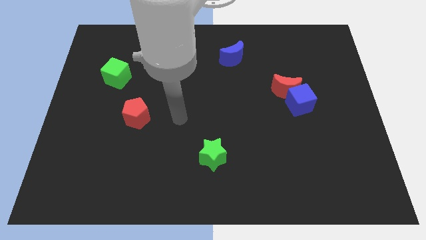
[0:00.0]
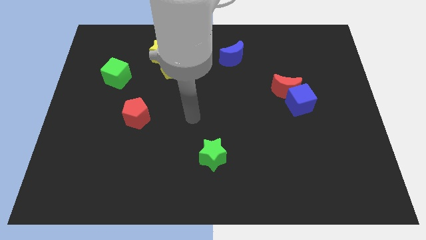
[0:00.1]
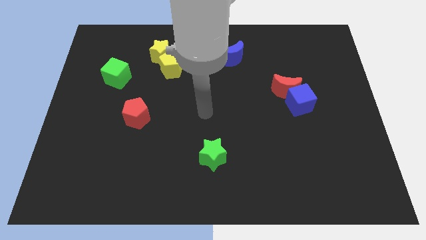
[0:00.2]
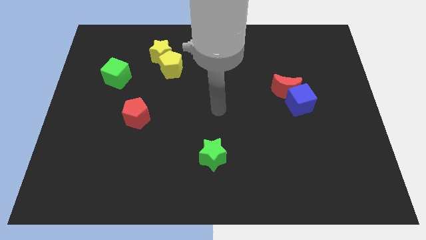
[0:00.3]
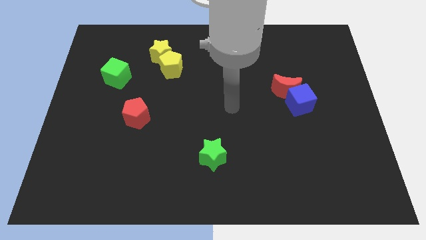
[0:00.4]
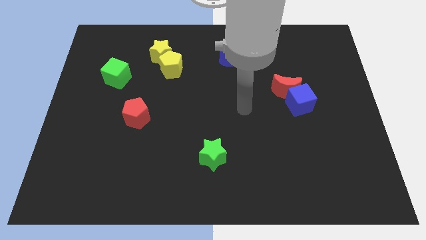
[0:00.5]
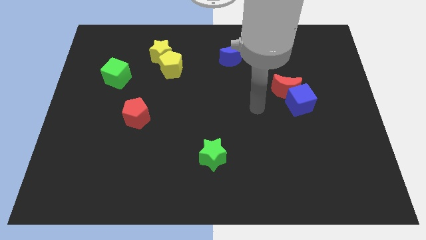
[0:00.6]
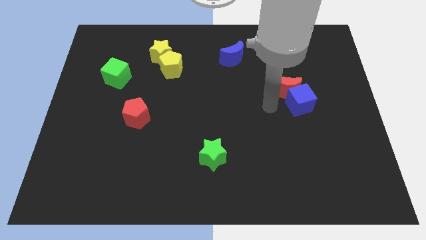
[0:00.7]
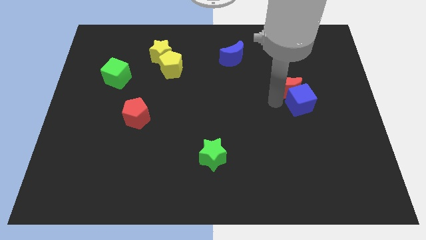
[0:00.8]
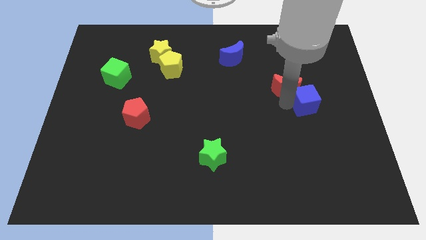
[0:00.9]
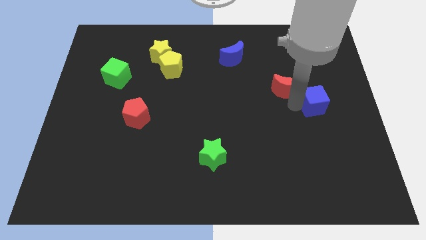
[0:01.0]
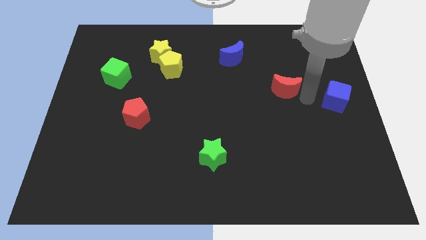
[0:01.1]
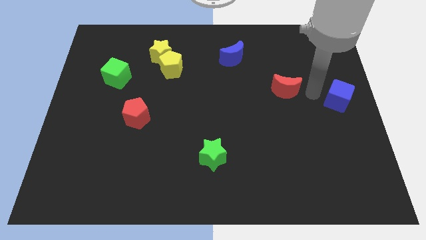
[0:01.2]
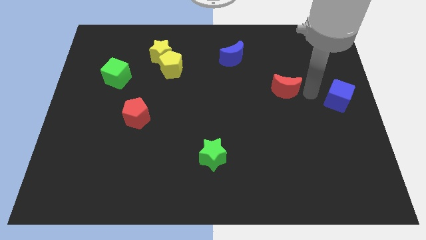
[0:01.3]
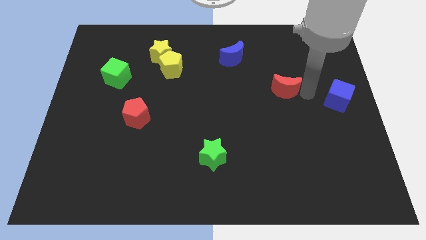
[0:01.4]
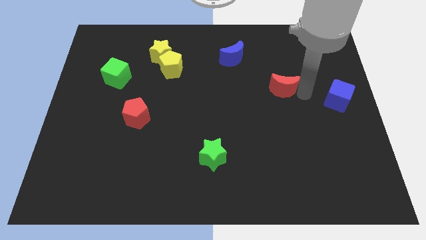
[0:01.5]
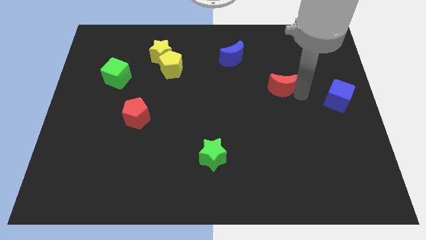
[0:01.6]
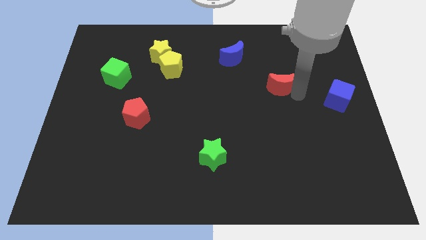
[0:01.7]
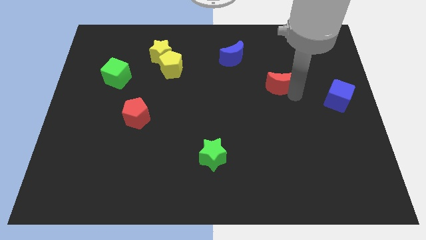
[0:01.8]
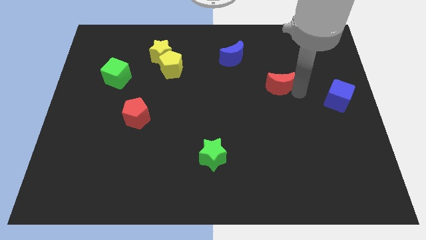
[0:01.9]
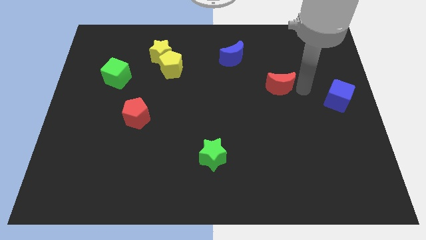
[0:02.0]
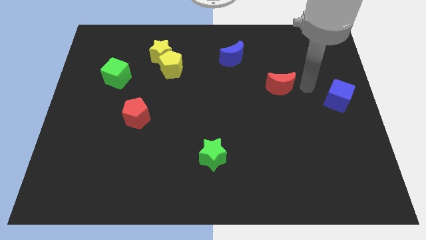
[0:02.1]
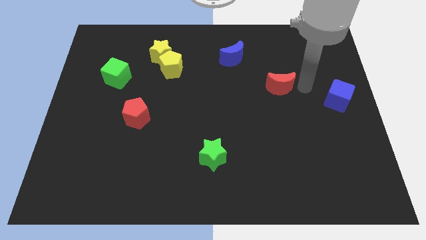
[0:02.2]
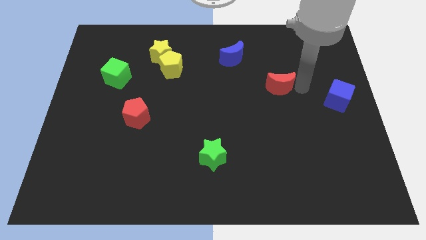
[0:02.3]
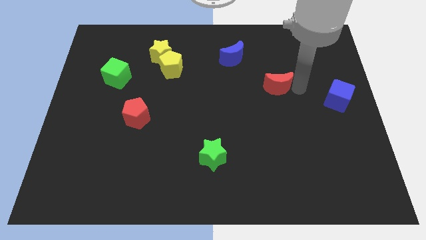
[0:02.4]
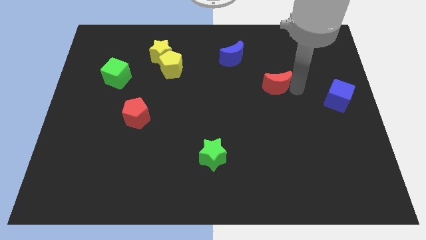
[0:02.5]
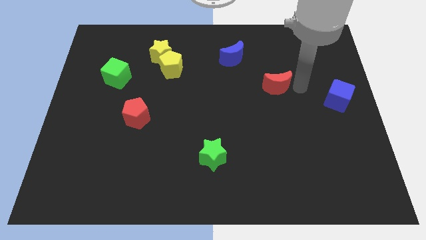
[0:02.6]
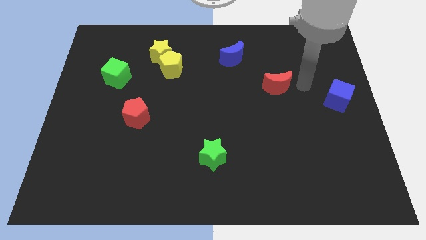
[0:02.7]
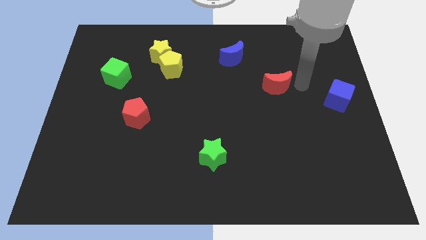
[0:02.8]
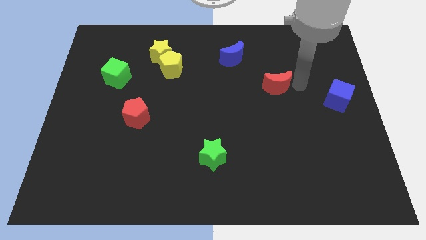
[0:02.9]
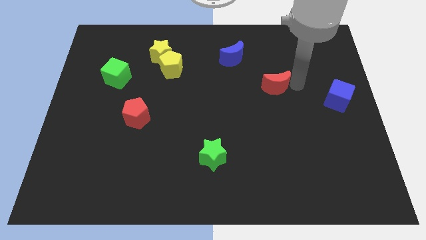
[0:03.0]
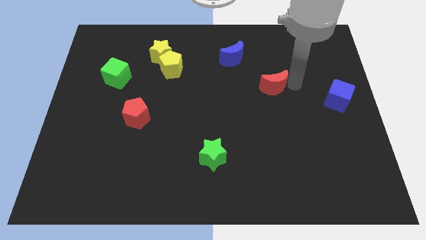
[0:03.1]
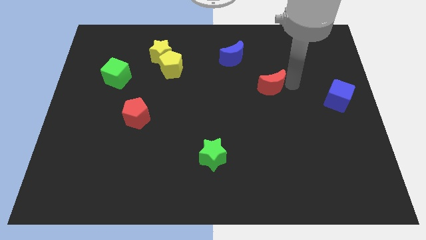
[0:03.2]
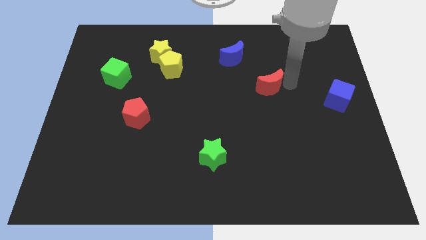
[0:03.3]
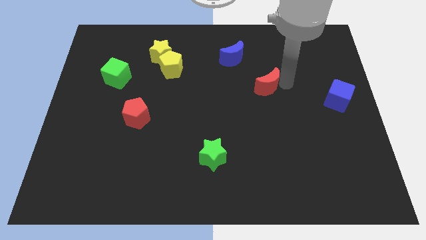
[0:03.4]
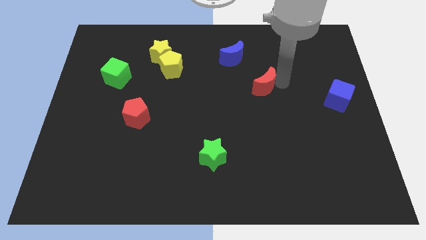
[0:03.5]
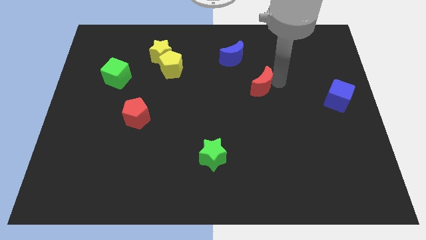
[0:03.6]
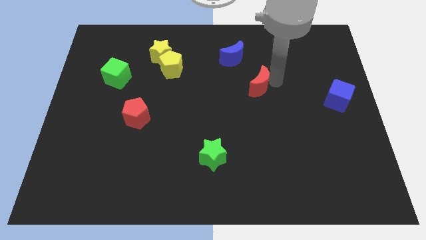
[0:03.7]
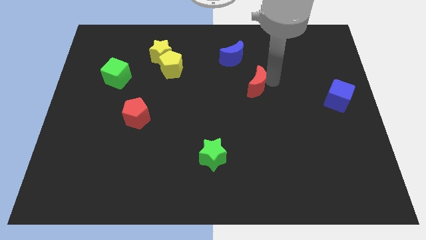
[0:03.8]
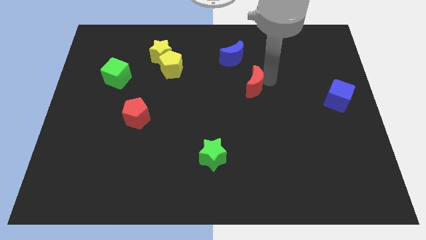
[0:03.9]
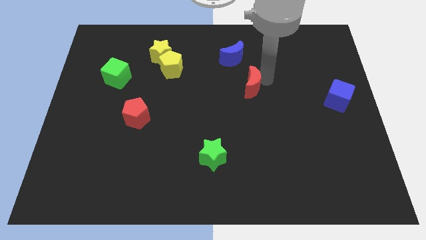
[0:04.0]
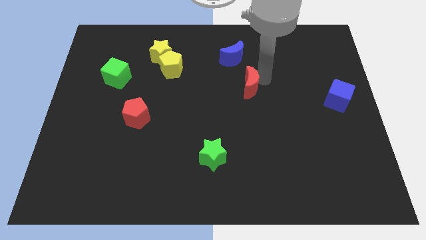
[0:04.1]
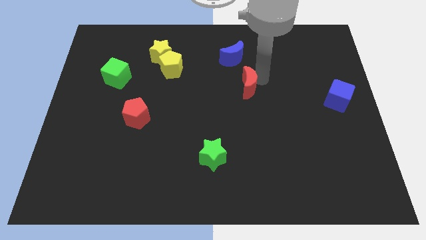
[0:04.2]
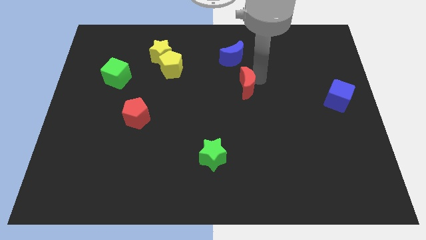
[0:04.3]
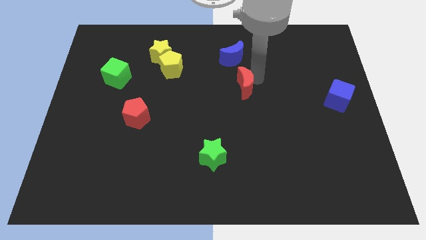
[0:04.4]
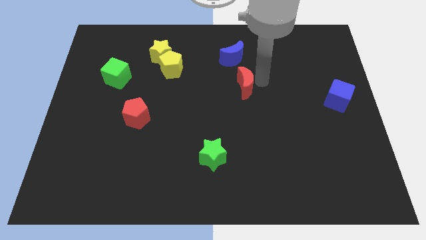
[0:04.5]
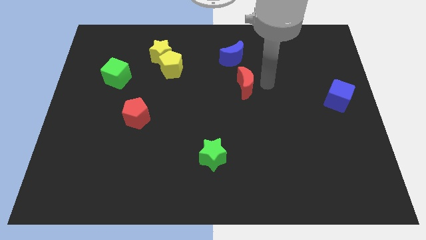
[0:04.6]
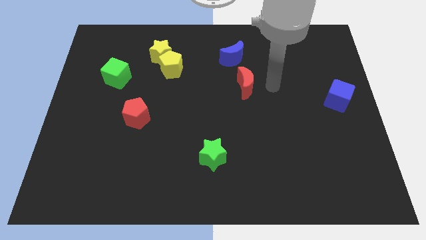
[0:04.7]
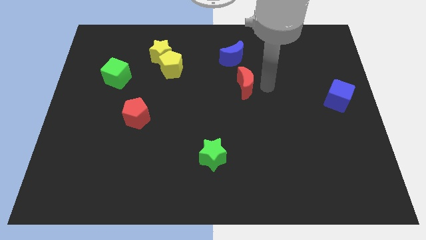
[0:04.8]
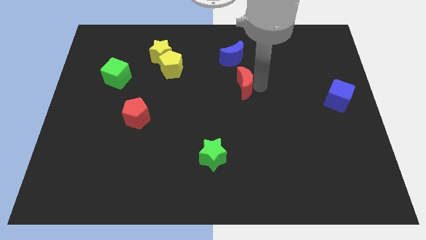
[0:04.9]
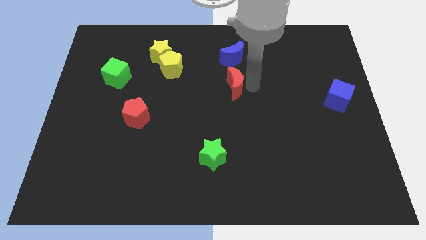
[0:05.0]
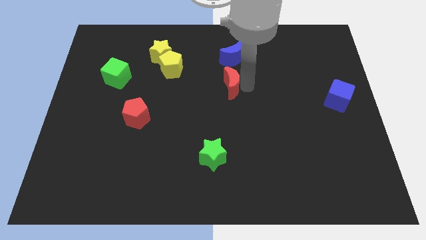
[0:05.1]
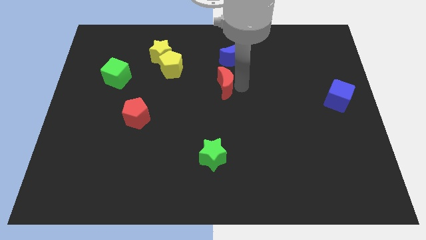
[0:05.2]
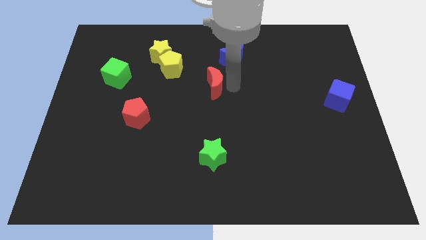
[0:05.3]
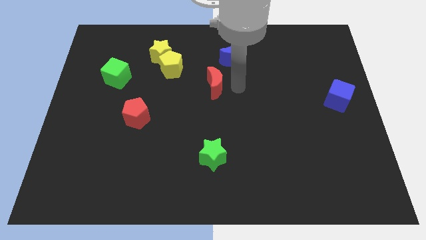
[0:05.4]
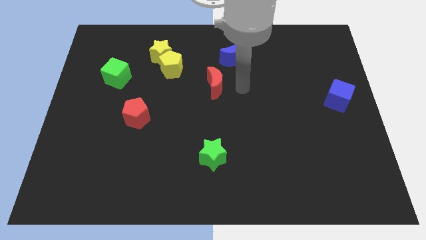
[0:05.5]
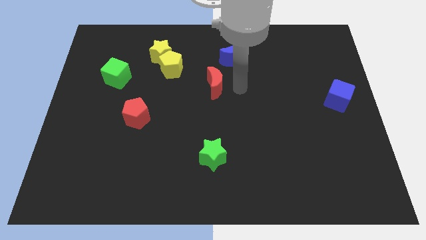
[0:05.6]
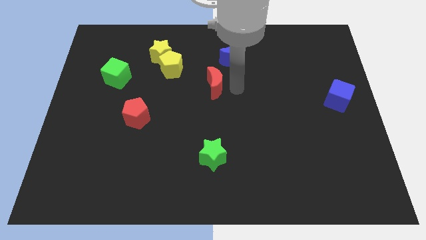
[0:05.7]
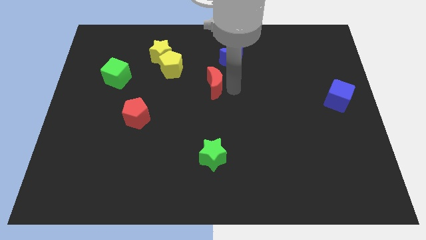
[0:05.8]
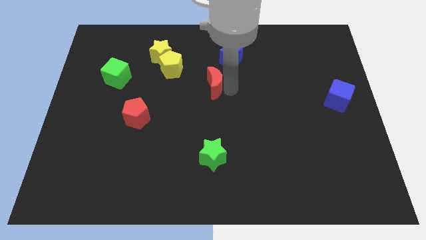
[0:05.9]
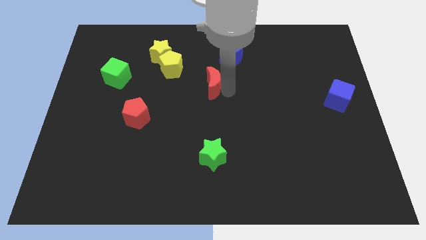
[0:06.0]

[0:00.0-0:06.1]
push the red moon to the bottom right side of the yellow pentagon

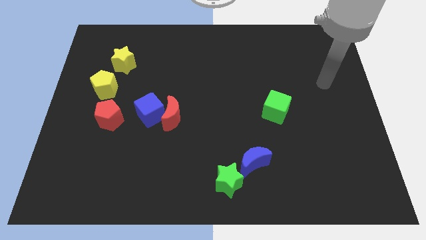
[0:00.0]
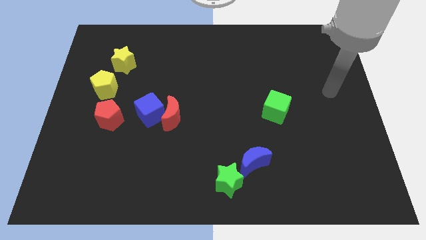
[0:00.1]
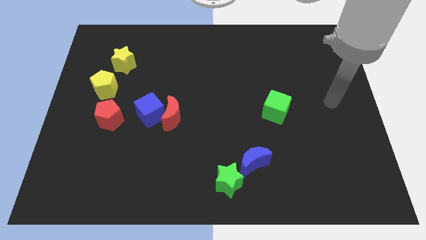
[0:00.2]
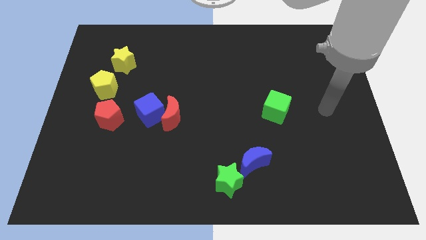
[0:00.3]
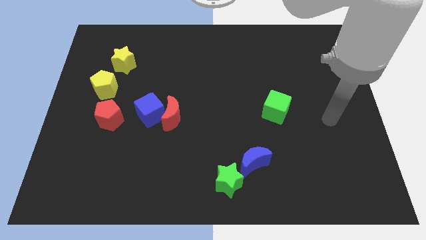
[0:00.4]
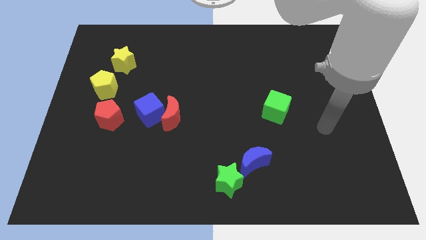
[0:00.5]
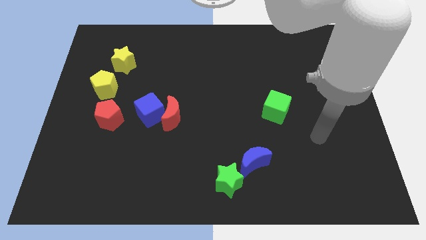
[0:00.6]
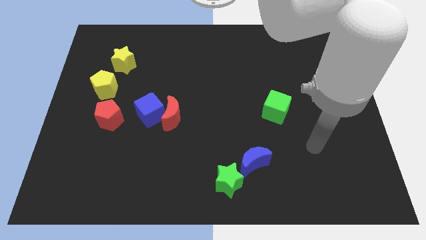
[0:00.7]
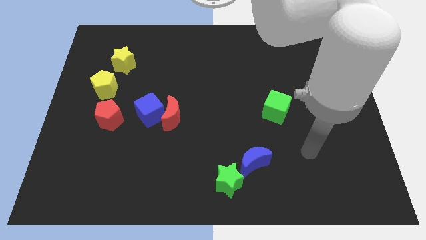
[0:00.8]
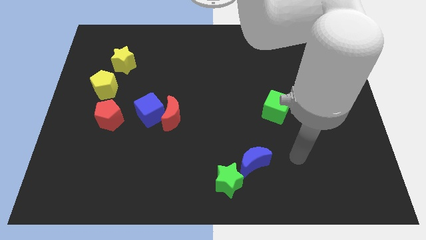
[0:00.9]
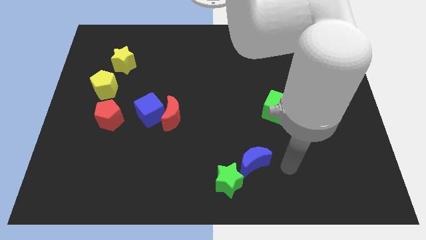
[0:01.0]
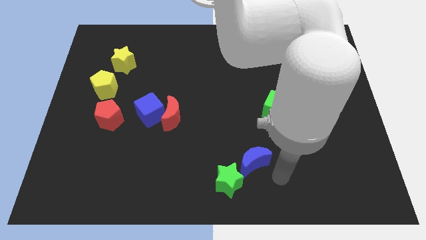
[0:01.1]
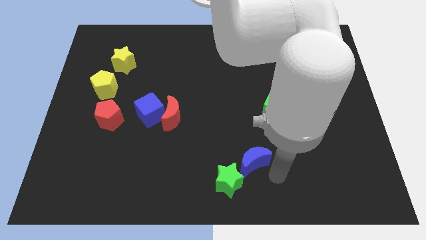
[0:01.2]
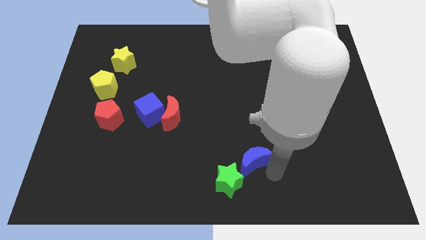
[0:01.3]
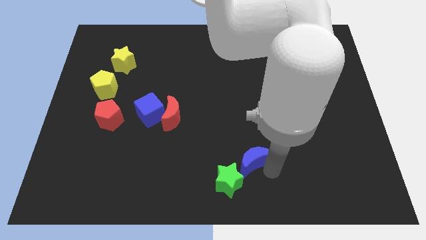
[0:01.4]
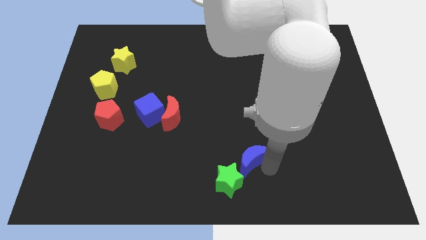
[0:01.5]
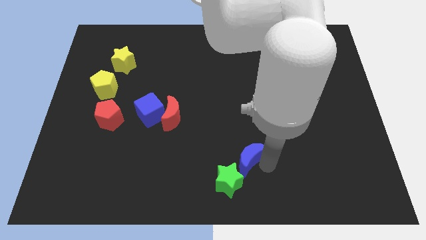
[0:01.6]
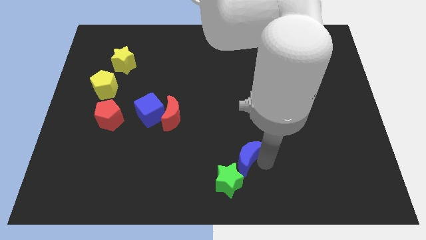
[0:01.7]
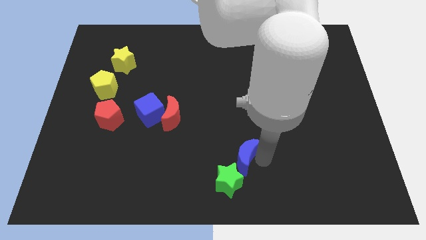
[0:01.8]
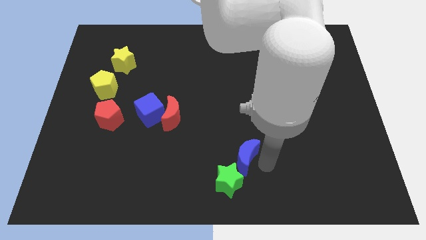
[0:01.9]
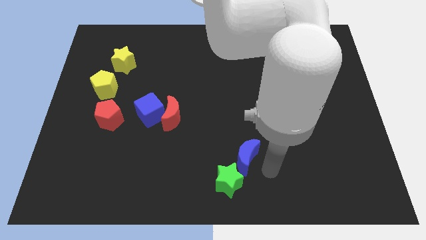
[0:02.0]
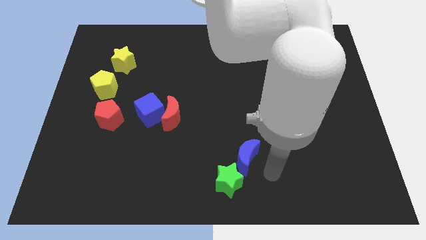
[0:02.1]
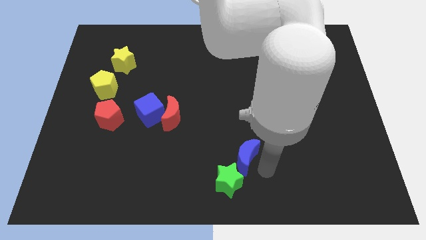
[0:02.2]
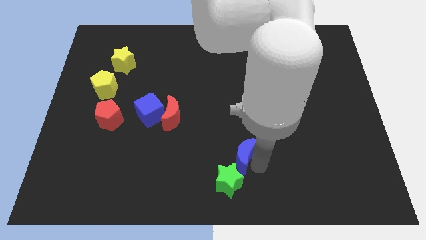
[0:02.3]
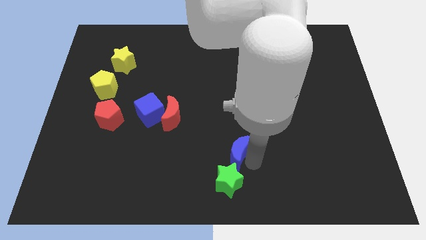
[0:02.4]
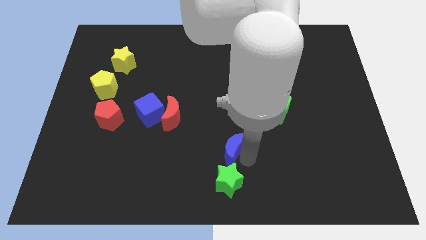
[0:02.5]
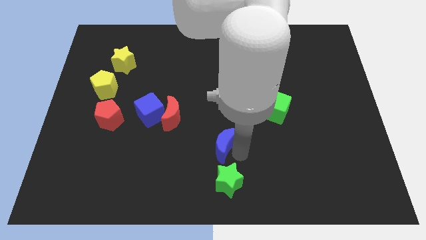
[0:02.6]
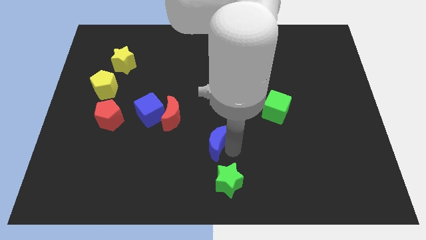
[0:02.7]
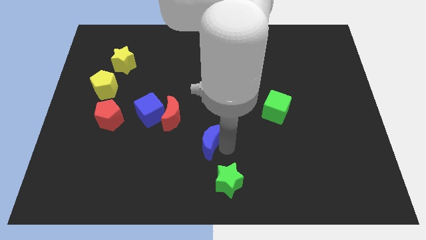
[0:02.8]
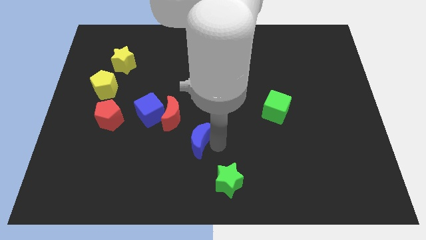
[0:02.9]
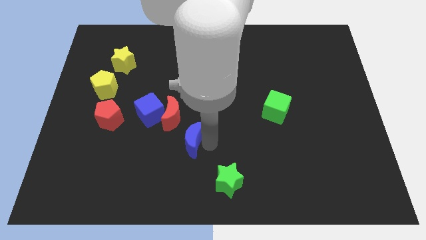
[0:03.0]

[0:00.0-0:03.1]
put the blue moon diagonally down and to the right of the blue cube
